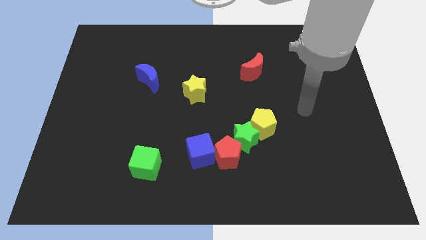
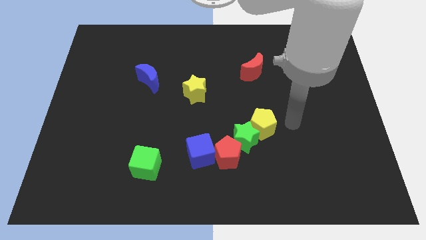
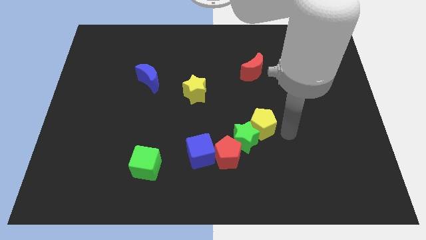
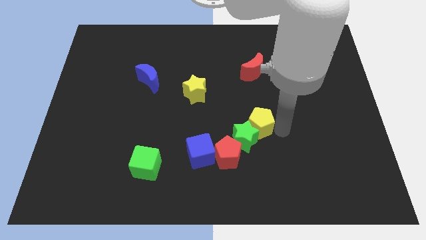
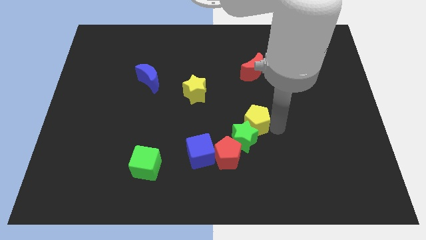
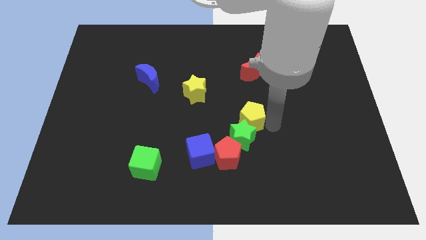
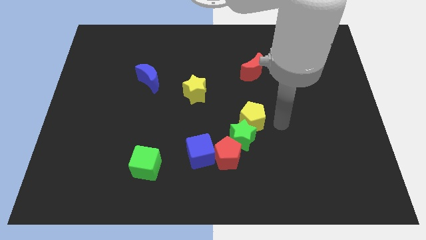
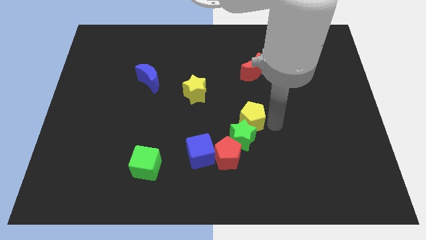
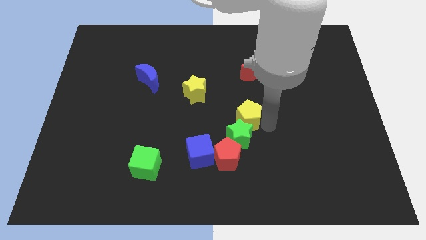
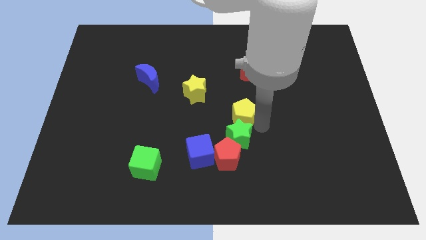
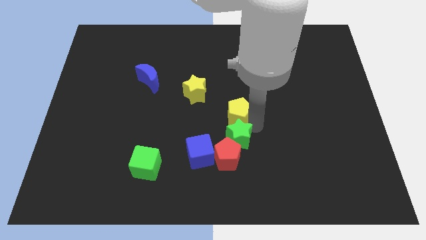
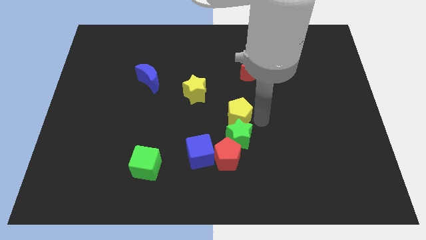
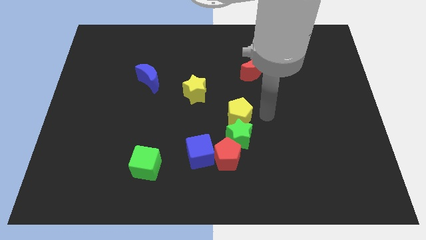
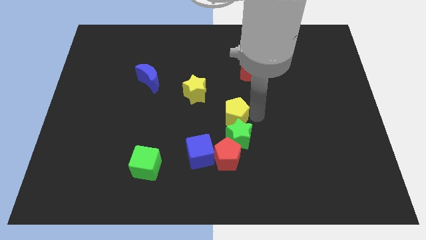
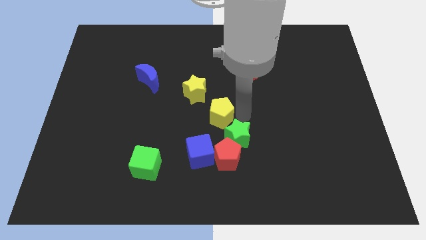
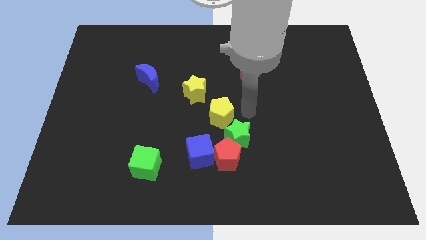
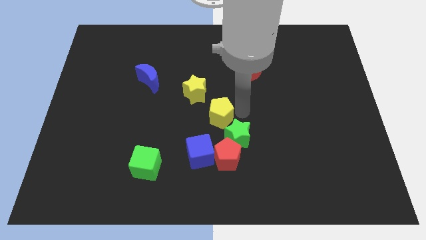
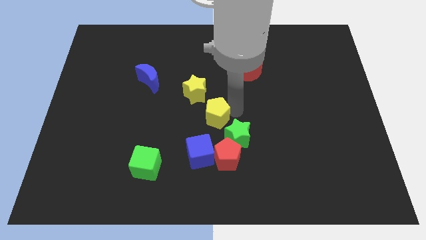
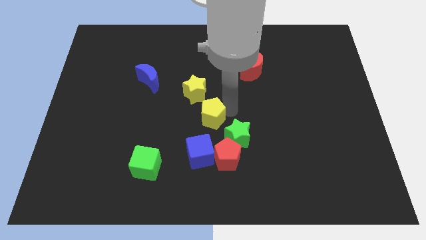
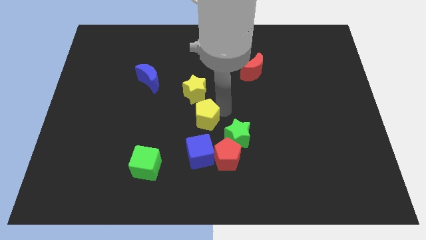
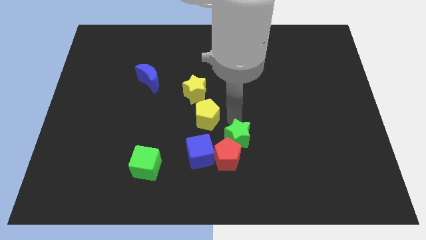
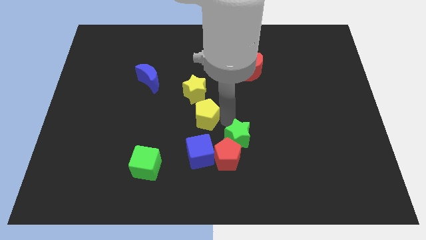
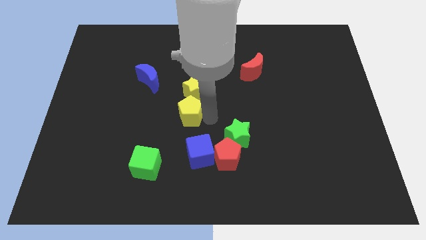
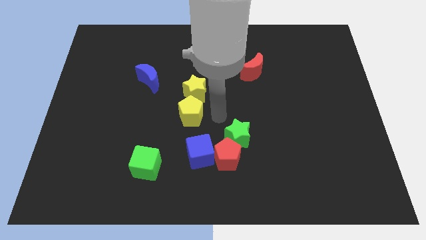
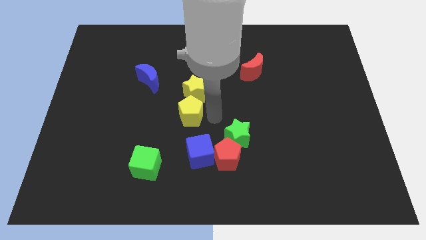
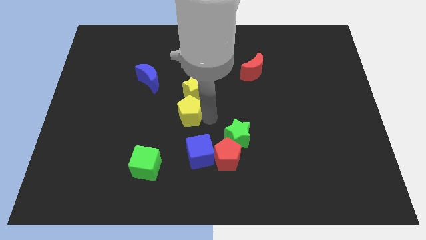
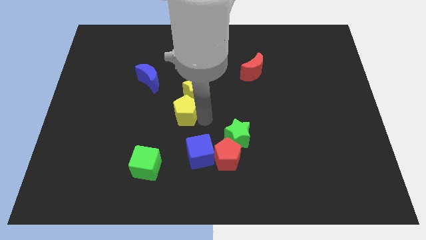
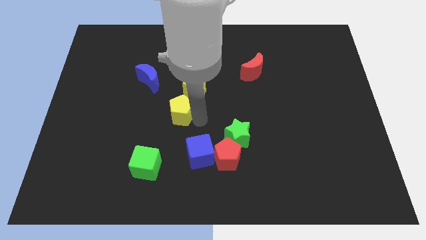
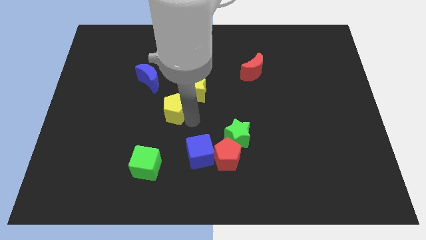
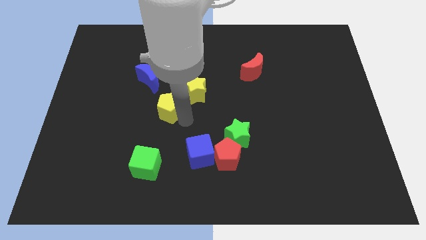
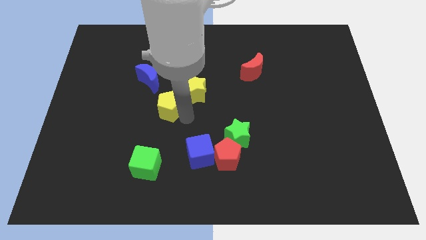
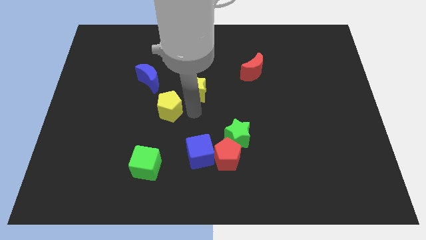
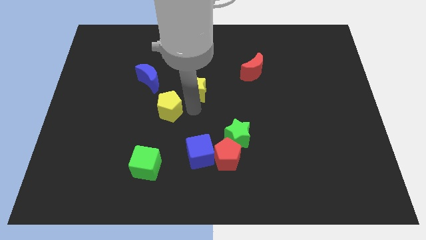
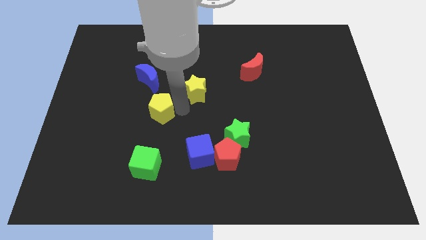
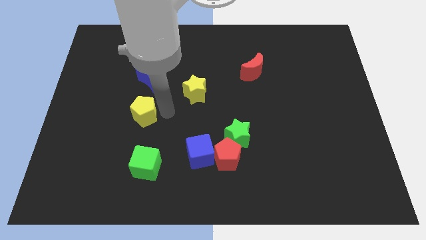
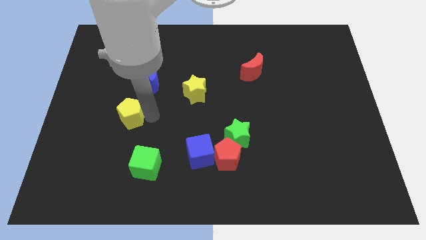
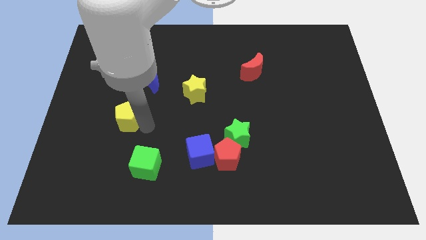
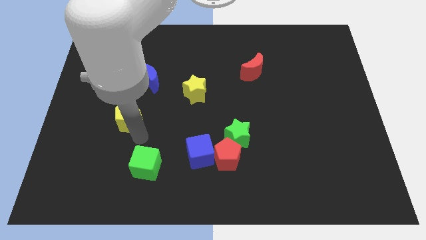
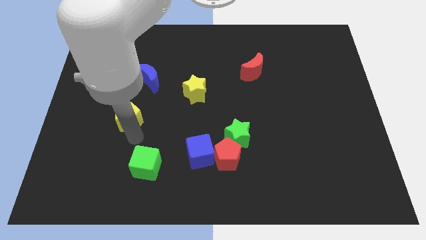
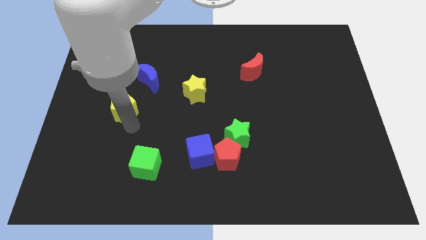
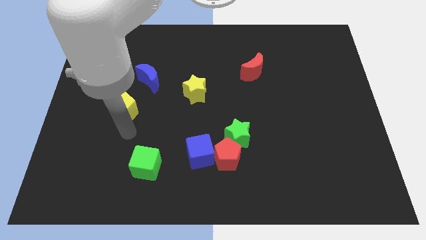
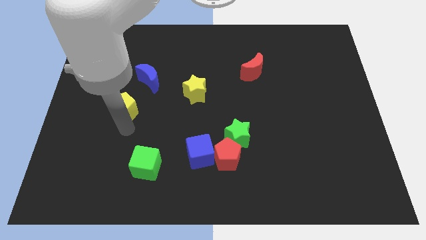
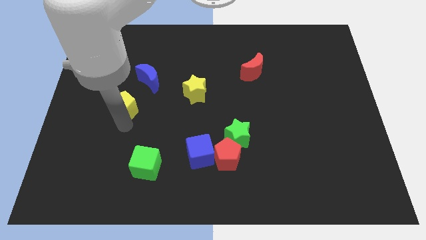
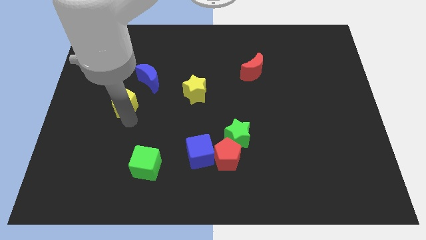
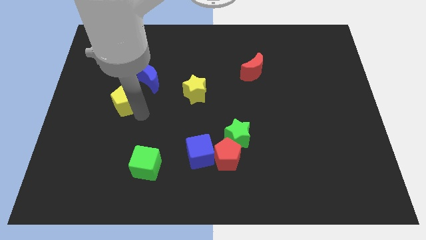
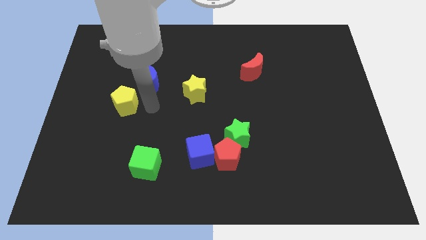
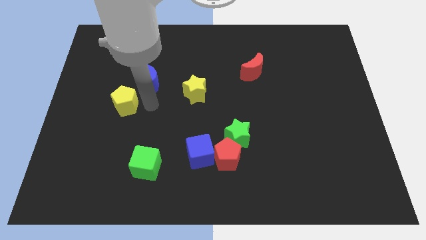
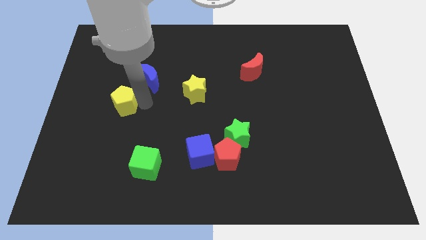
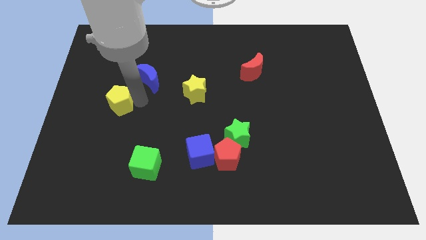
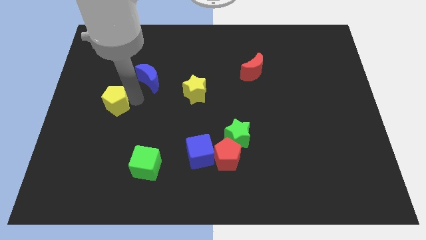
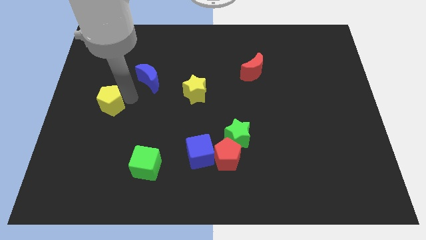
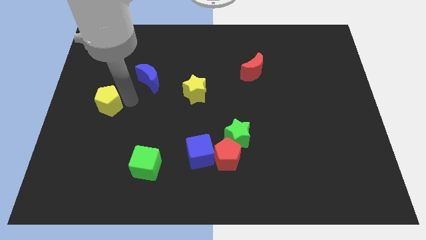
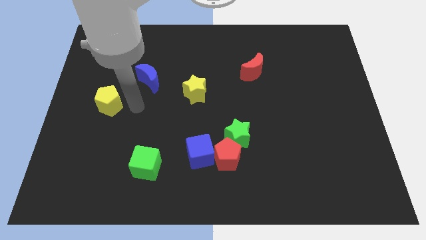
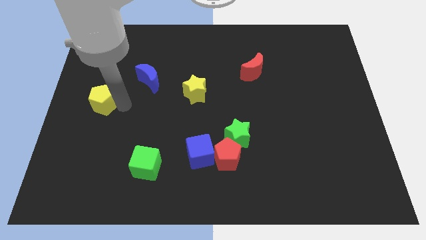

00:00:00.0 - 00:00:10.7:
move the yellow pentagon to the center left

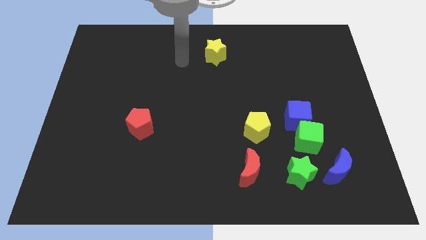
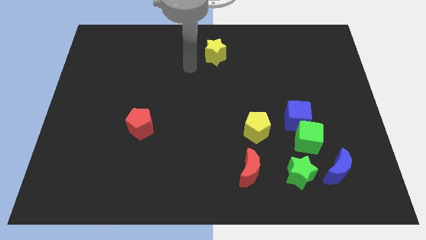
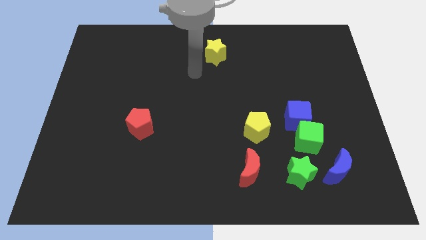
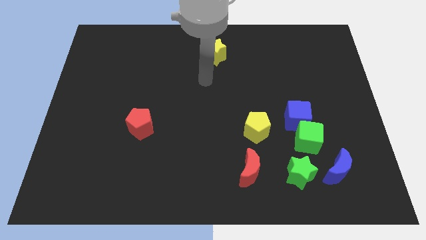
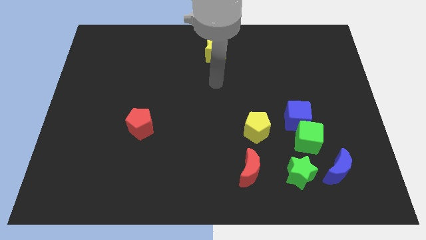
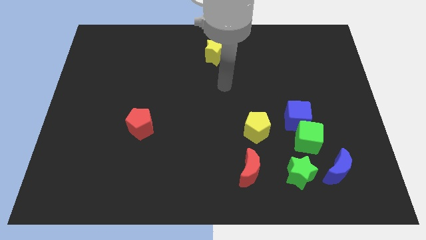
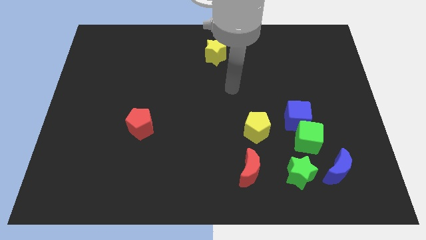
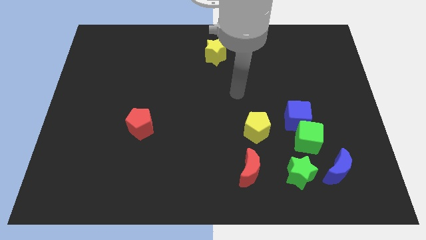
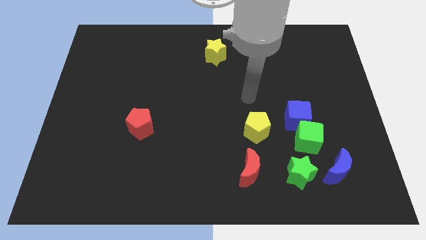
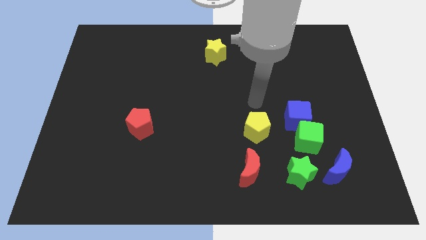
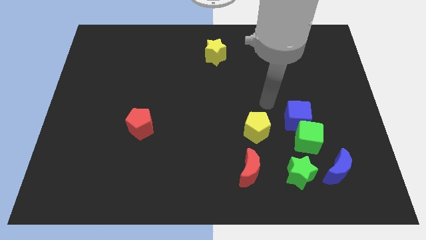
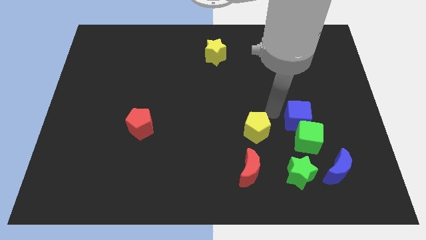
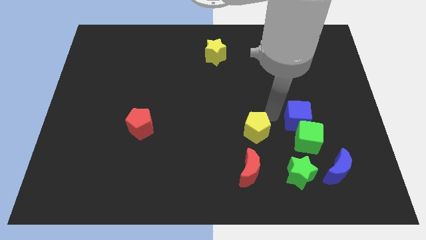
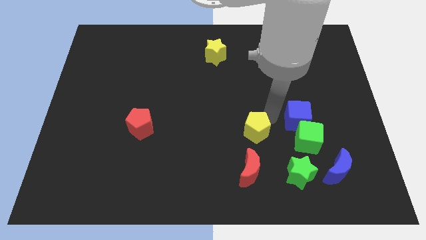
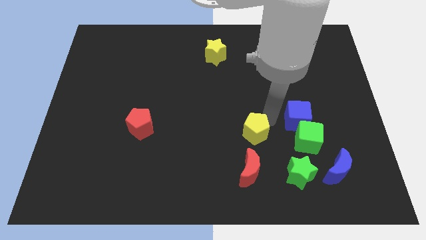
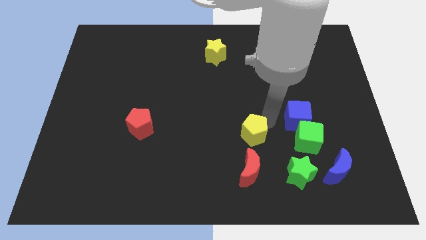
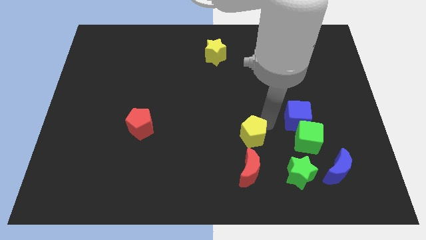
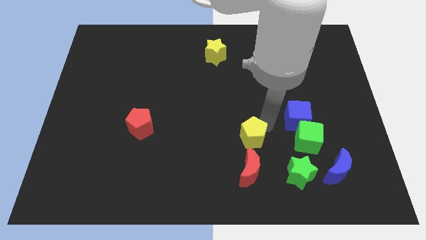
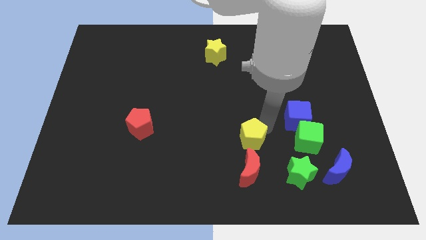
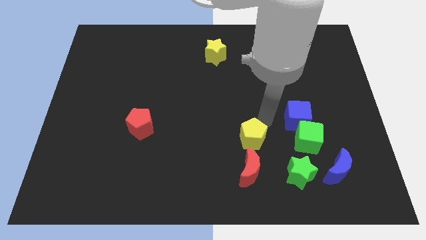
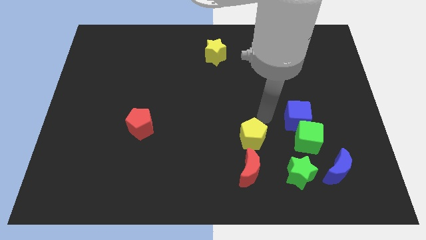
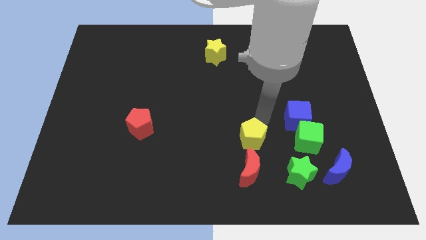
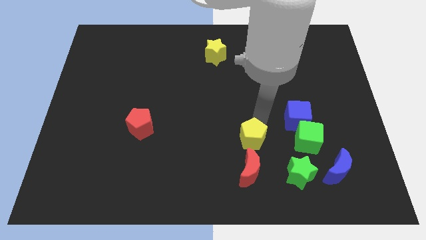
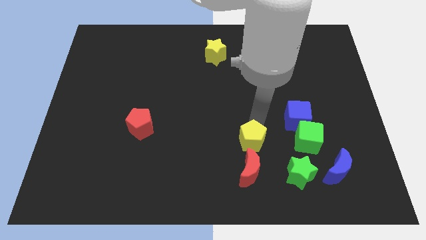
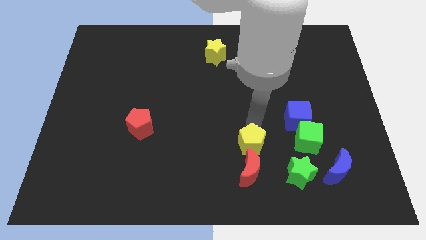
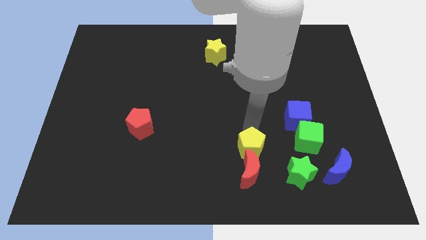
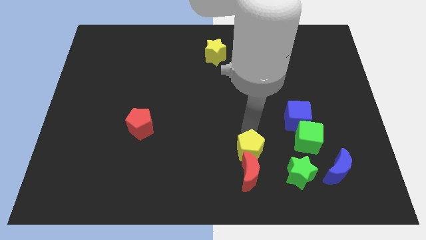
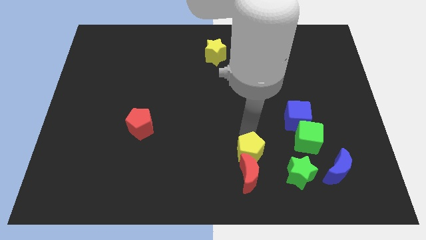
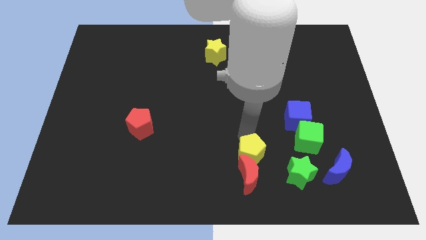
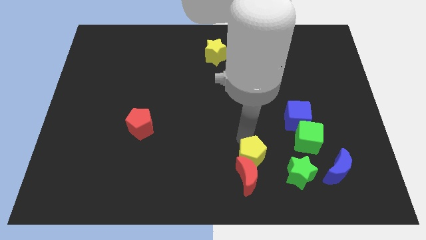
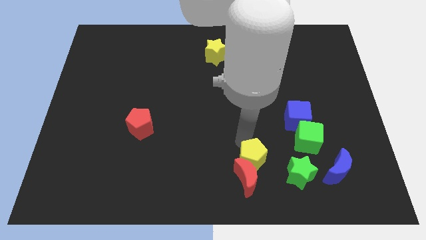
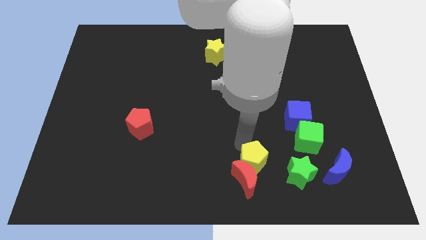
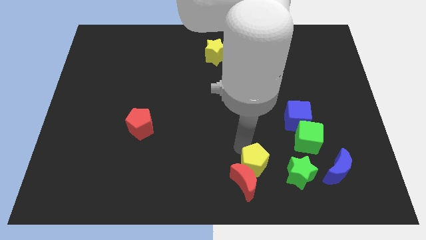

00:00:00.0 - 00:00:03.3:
push the yellow pentagon to the bottom side
